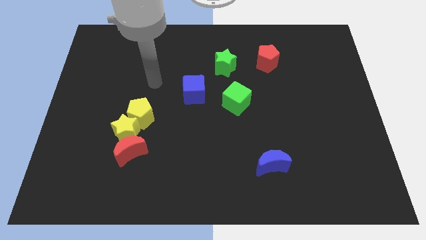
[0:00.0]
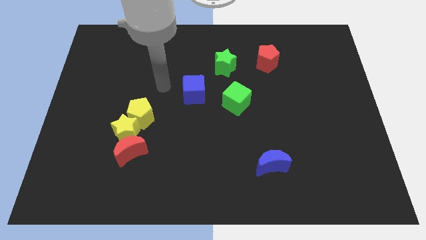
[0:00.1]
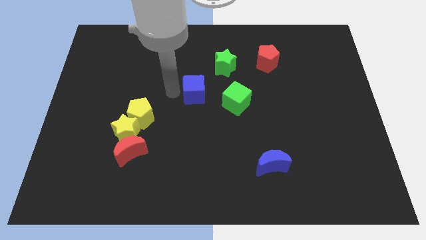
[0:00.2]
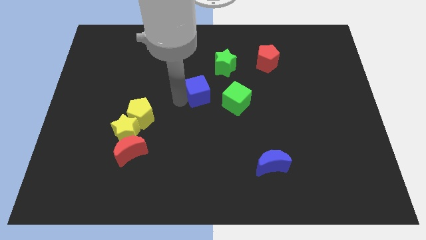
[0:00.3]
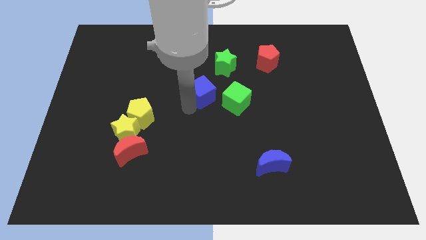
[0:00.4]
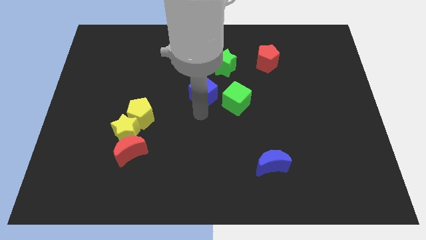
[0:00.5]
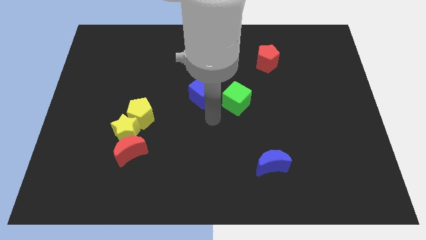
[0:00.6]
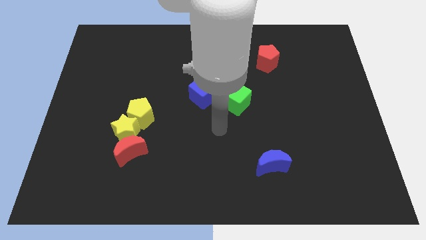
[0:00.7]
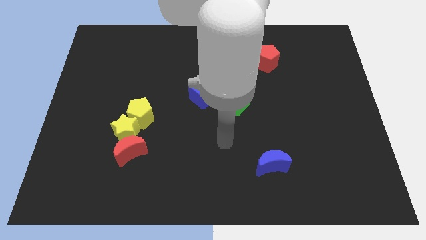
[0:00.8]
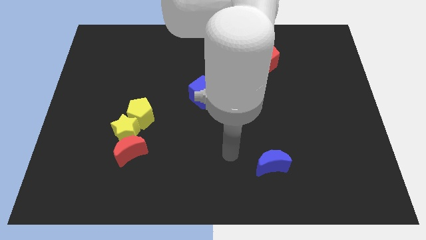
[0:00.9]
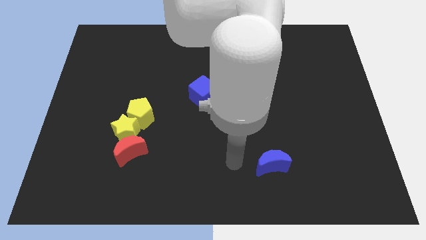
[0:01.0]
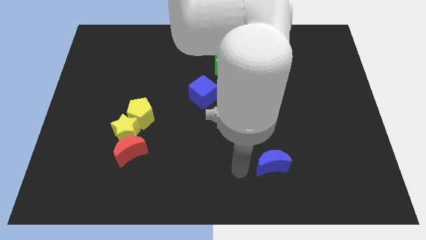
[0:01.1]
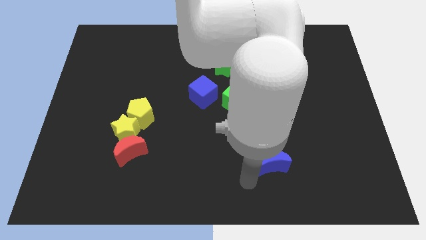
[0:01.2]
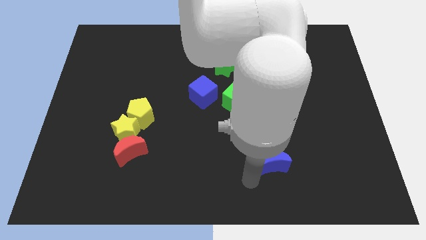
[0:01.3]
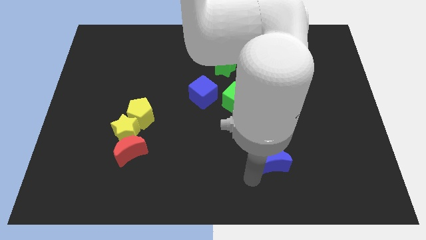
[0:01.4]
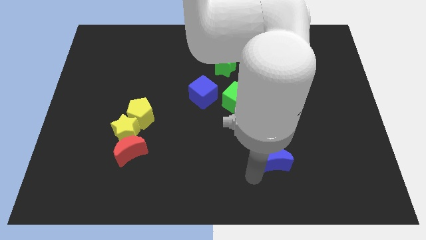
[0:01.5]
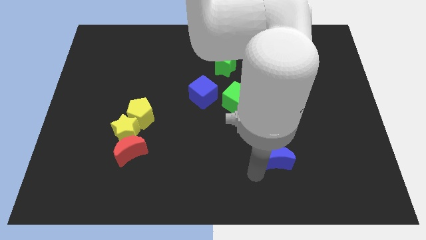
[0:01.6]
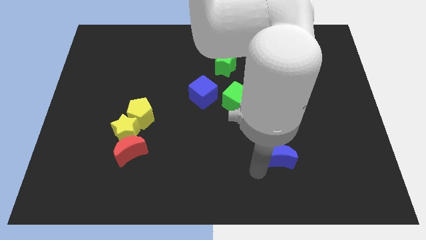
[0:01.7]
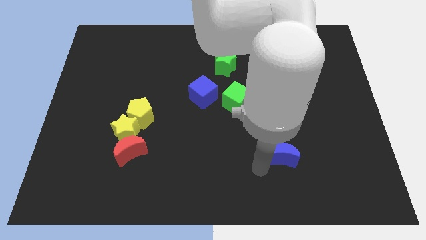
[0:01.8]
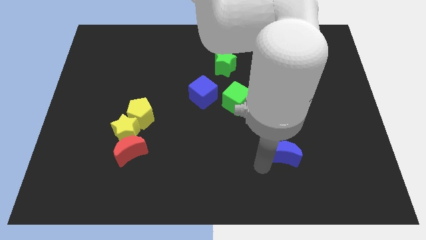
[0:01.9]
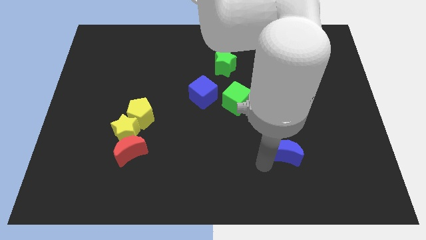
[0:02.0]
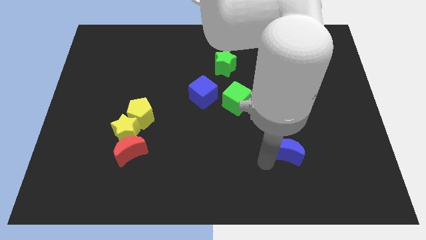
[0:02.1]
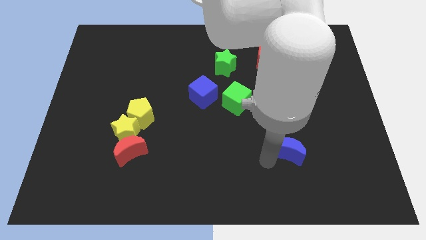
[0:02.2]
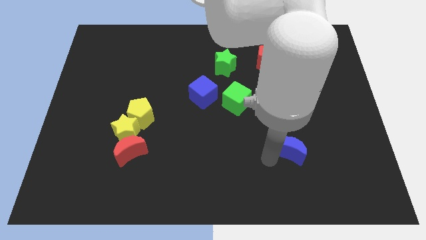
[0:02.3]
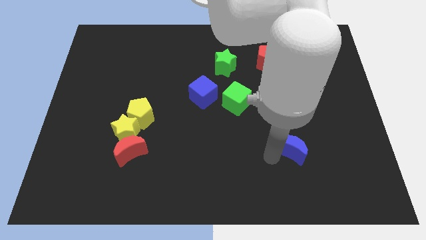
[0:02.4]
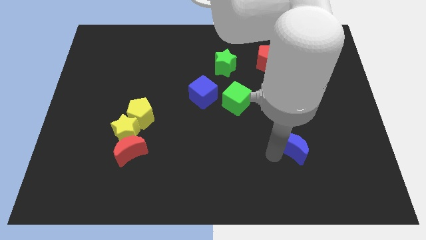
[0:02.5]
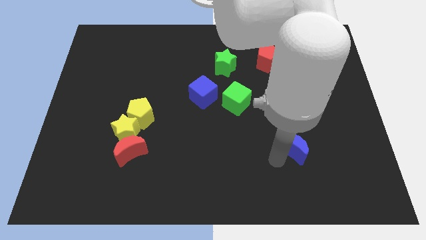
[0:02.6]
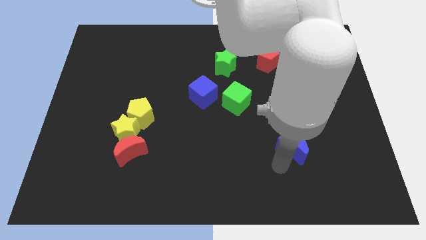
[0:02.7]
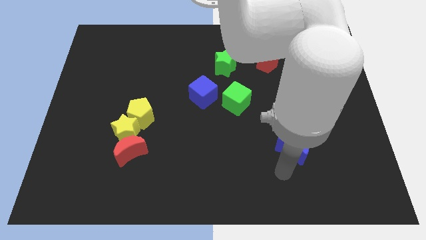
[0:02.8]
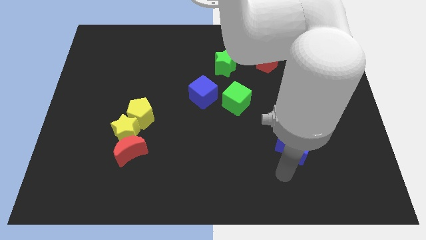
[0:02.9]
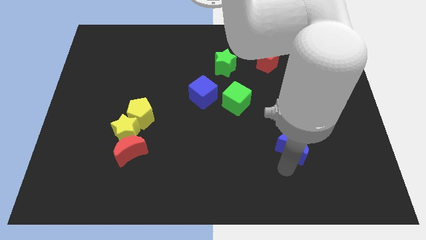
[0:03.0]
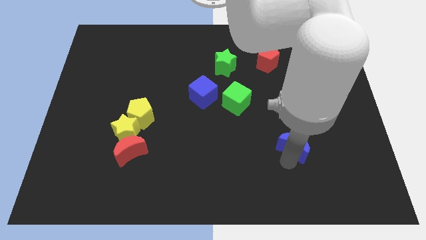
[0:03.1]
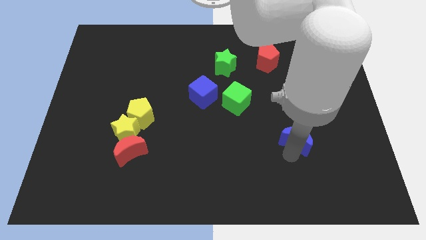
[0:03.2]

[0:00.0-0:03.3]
slide the blue moon diagonally upwards and right somewhat

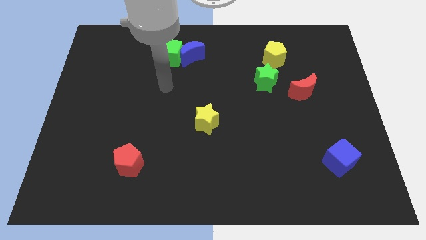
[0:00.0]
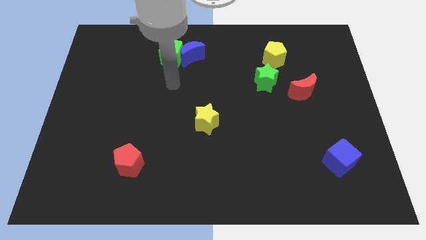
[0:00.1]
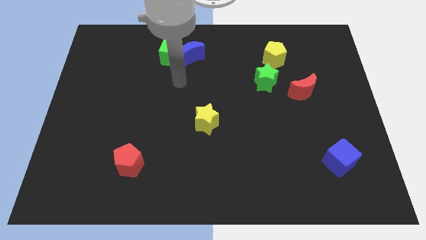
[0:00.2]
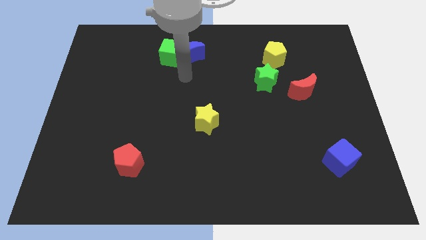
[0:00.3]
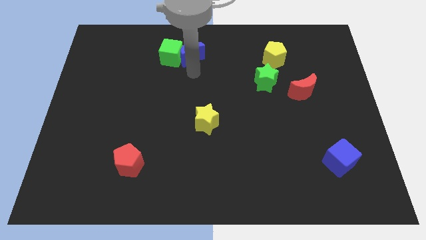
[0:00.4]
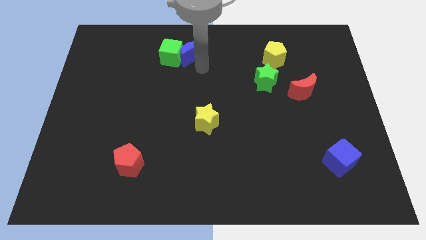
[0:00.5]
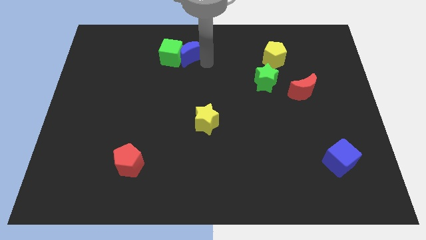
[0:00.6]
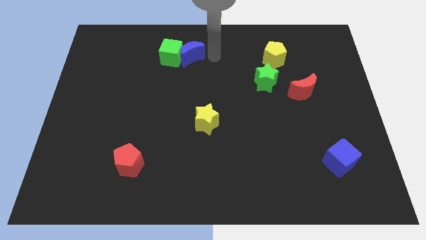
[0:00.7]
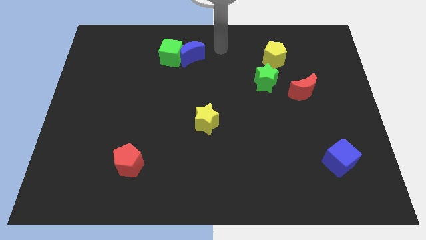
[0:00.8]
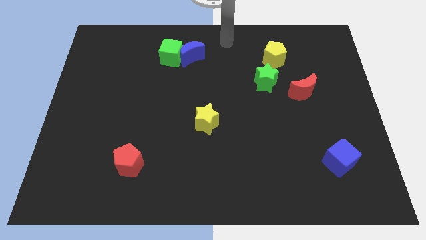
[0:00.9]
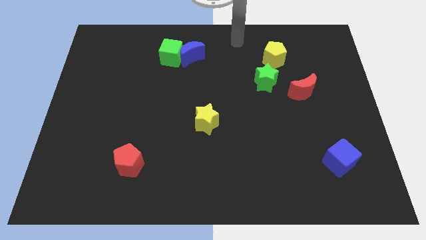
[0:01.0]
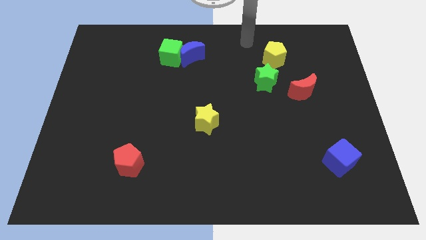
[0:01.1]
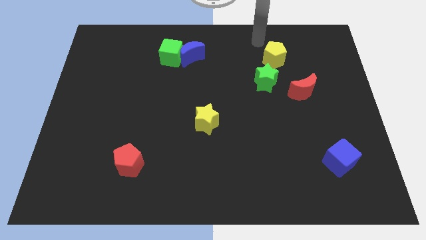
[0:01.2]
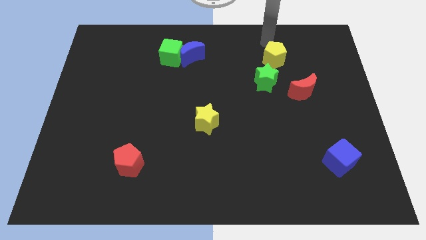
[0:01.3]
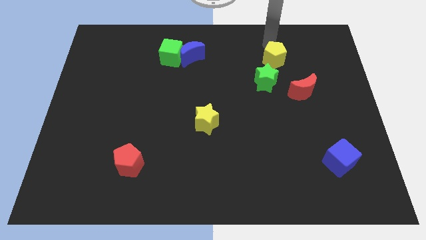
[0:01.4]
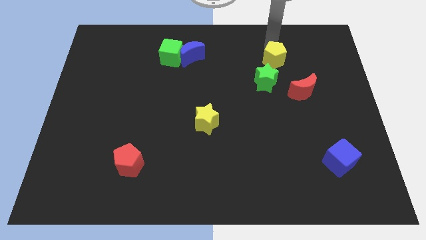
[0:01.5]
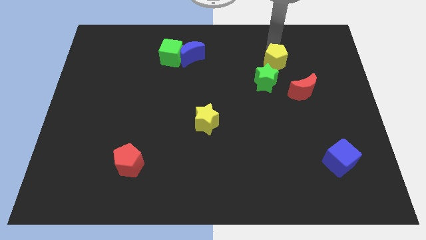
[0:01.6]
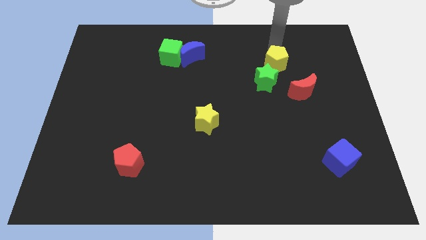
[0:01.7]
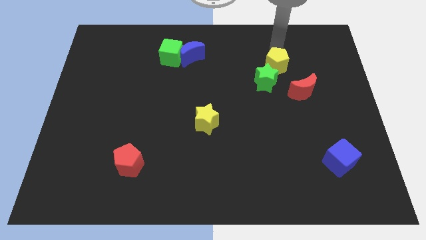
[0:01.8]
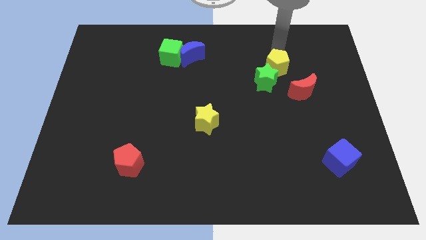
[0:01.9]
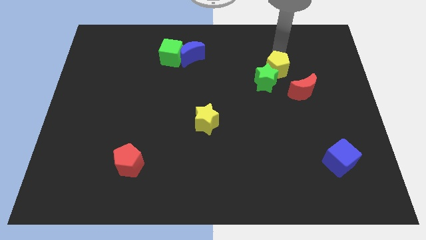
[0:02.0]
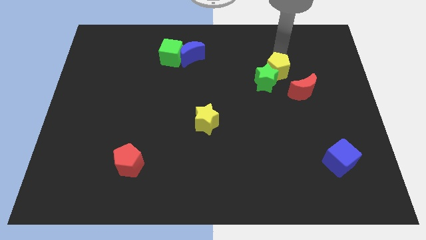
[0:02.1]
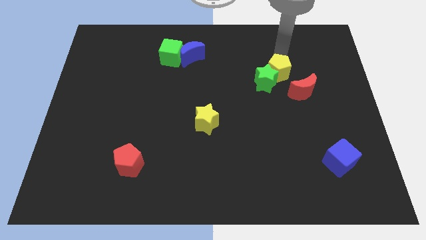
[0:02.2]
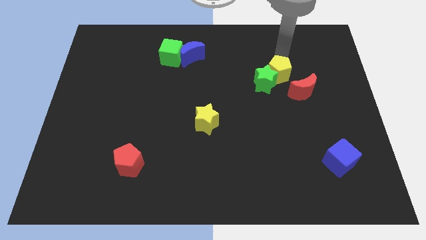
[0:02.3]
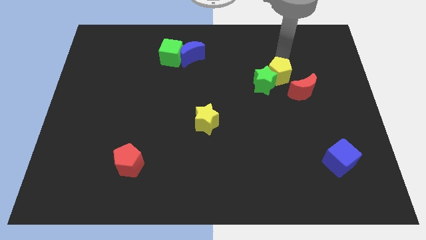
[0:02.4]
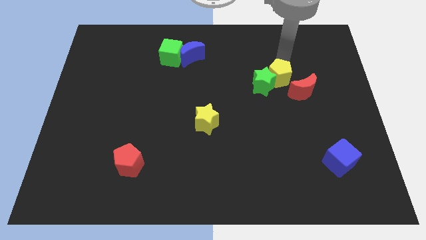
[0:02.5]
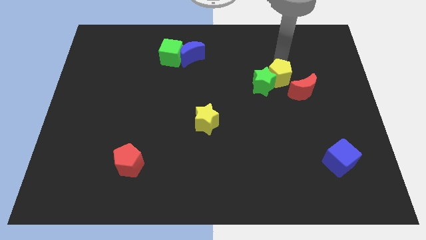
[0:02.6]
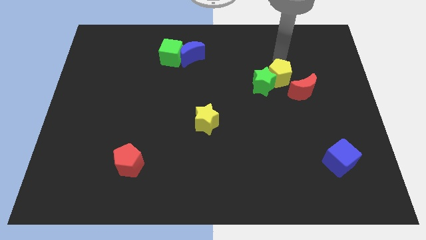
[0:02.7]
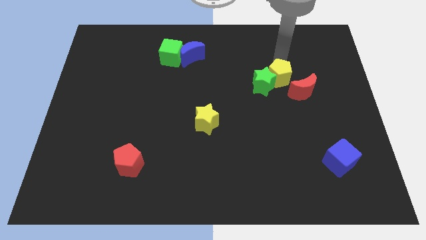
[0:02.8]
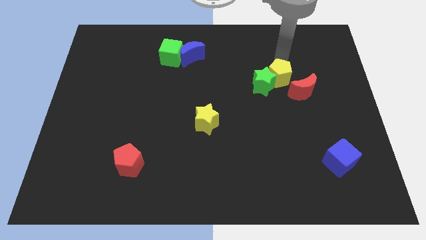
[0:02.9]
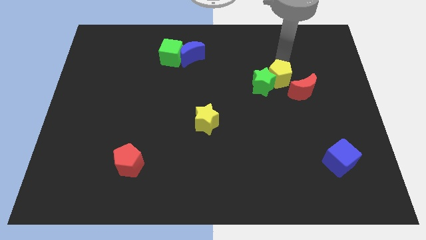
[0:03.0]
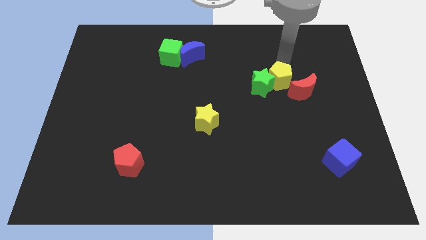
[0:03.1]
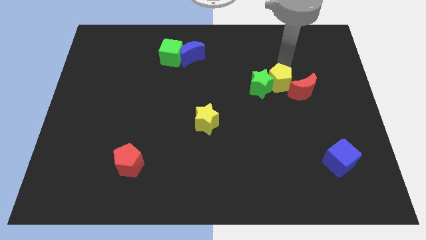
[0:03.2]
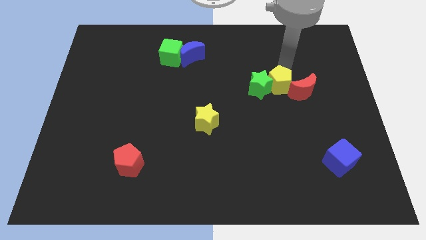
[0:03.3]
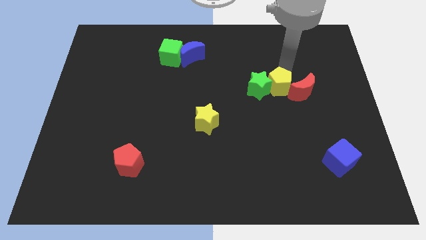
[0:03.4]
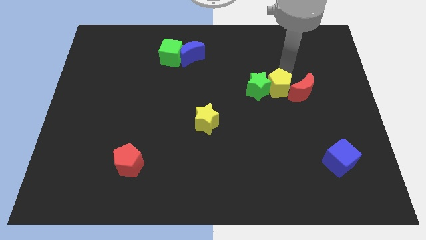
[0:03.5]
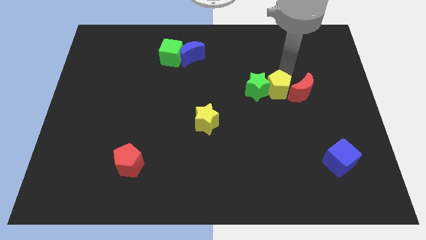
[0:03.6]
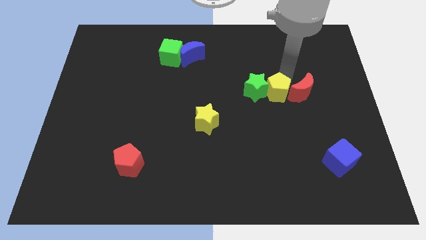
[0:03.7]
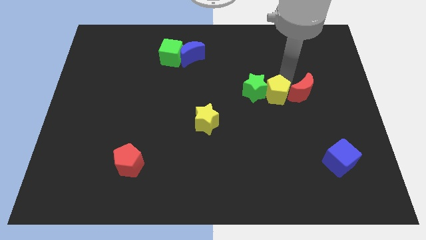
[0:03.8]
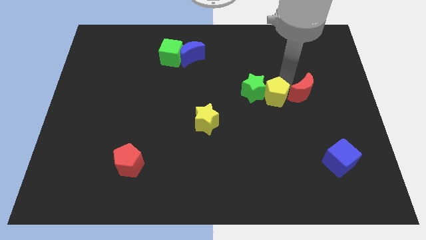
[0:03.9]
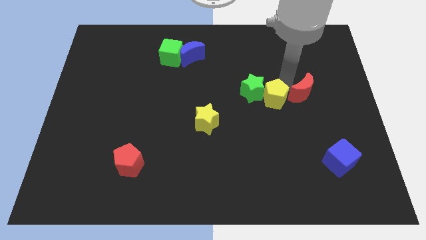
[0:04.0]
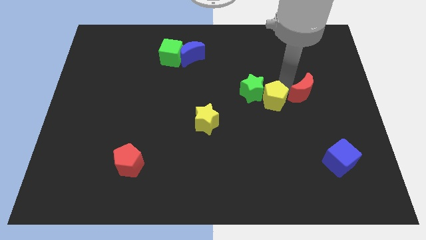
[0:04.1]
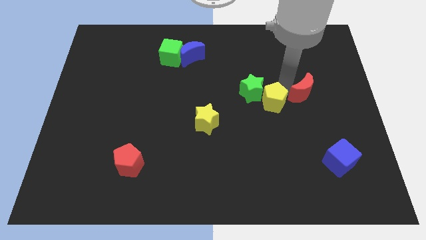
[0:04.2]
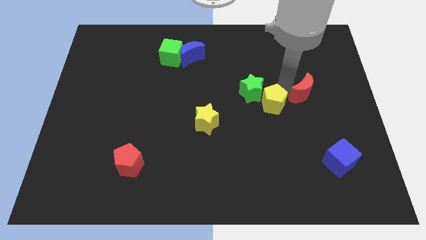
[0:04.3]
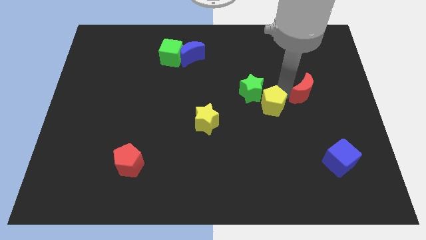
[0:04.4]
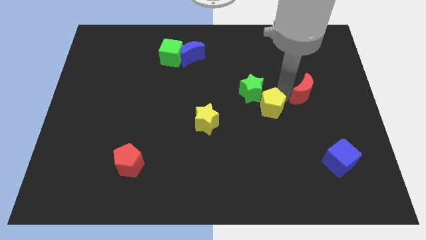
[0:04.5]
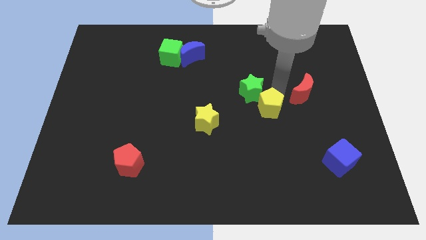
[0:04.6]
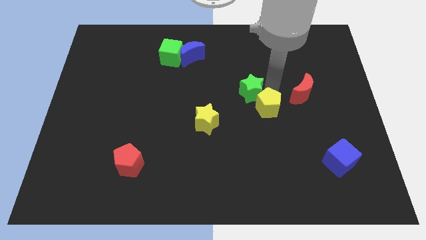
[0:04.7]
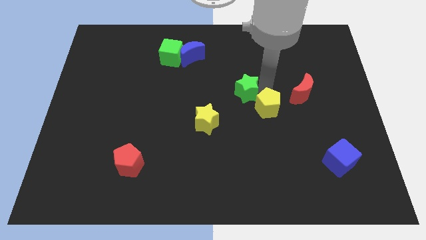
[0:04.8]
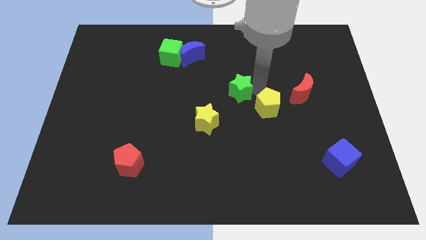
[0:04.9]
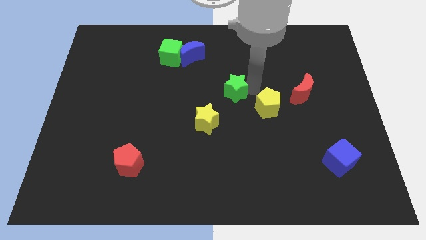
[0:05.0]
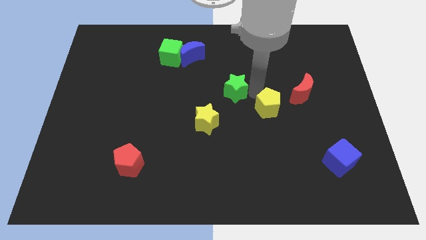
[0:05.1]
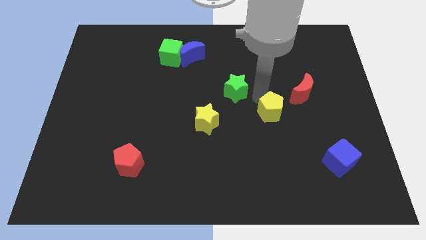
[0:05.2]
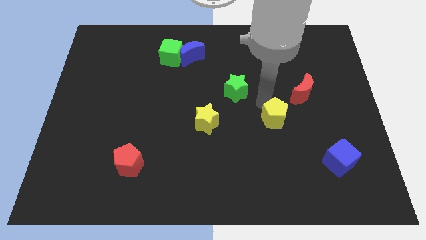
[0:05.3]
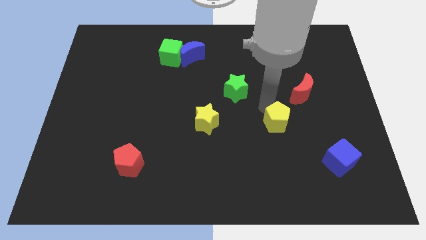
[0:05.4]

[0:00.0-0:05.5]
move the yellow pentagon down

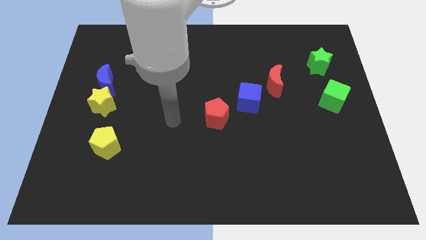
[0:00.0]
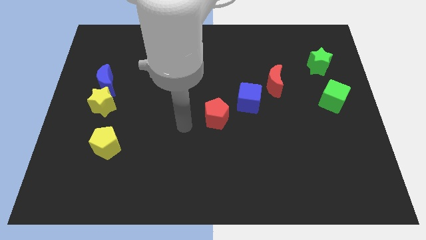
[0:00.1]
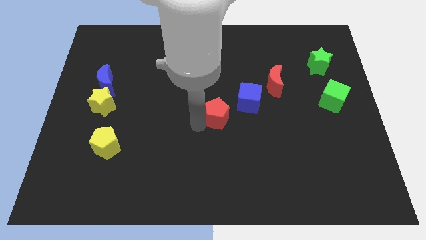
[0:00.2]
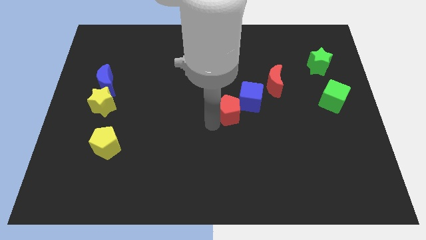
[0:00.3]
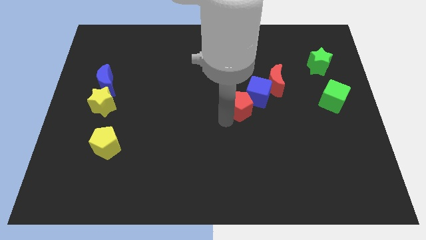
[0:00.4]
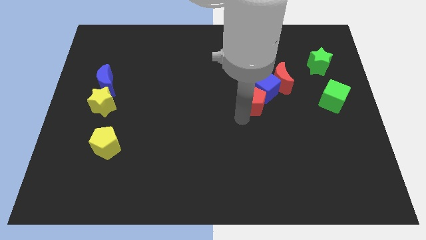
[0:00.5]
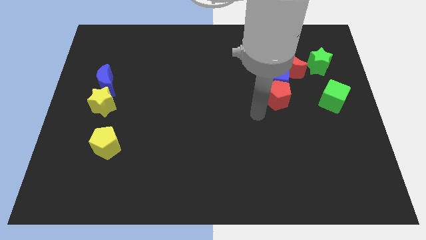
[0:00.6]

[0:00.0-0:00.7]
move the blue cube diagonally up and to the right a little
